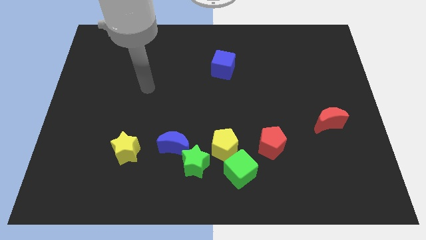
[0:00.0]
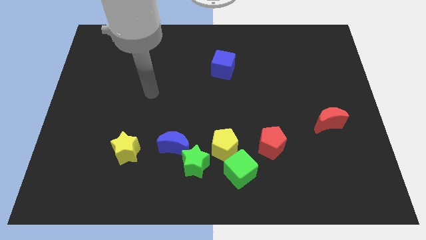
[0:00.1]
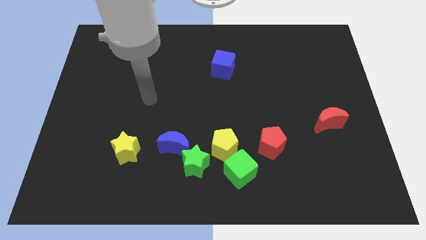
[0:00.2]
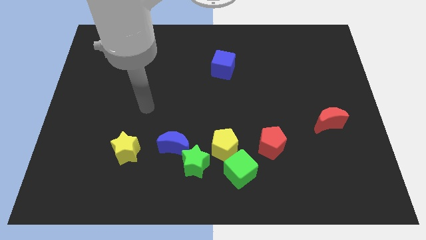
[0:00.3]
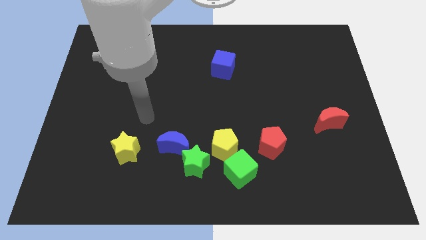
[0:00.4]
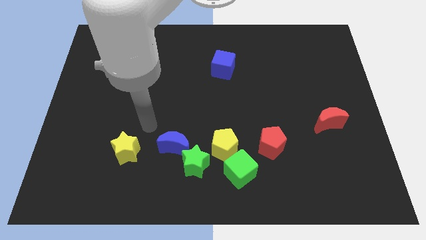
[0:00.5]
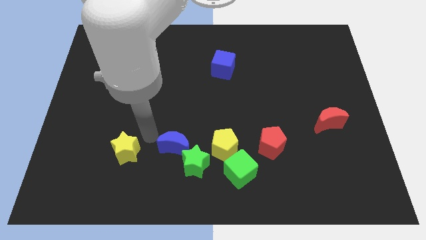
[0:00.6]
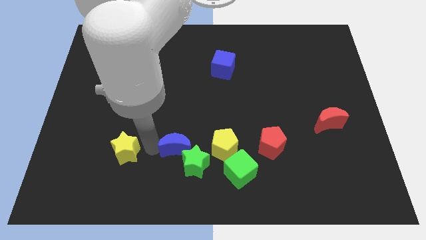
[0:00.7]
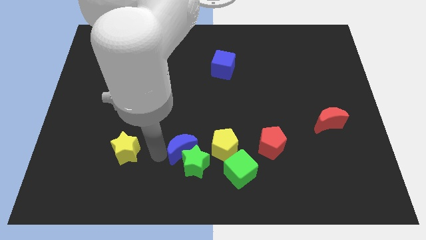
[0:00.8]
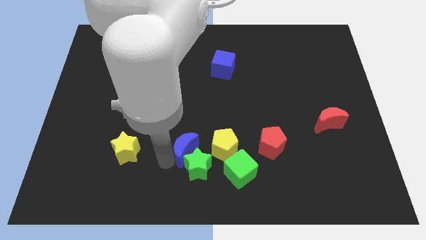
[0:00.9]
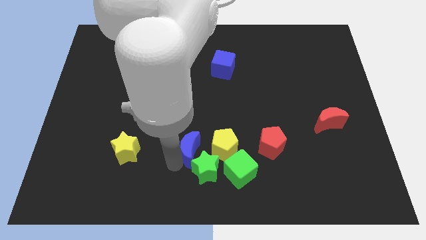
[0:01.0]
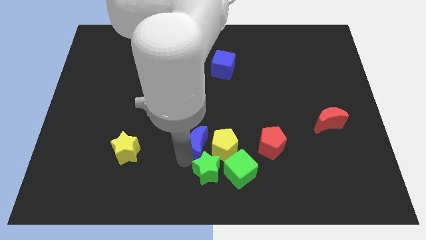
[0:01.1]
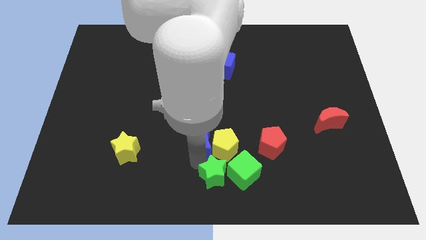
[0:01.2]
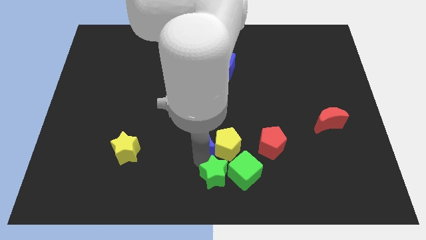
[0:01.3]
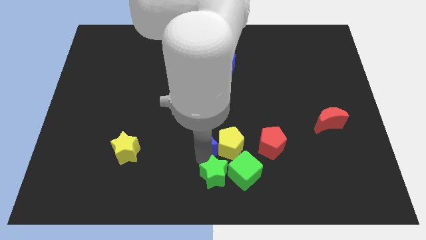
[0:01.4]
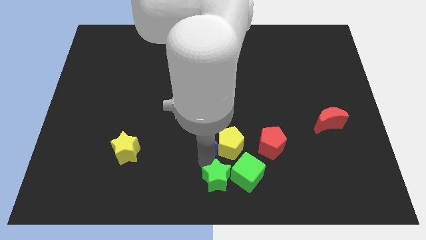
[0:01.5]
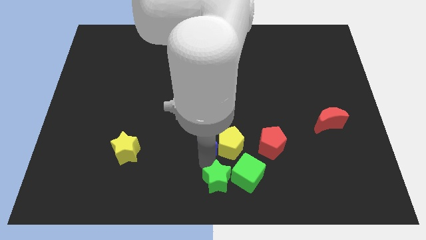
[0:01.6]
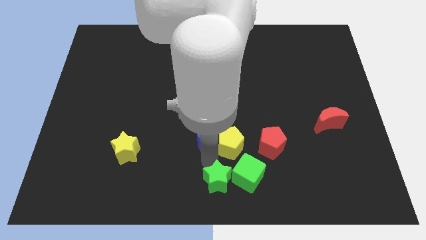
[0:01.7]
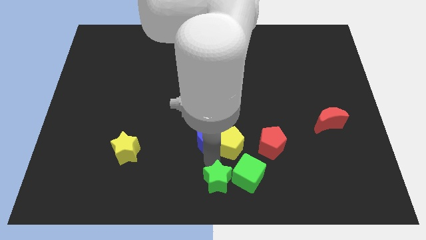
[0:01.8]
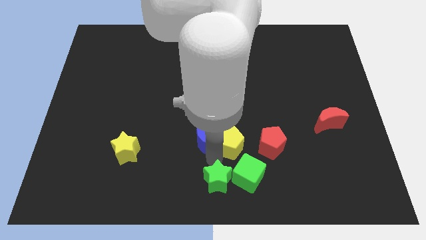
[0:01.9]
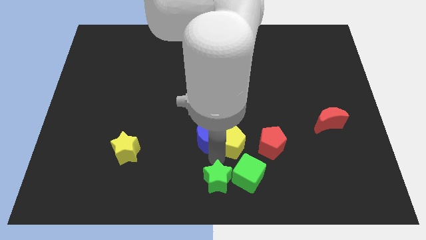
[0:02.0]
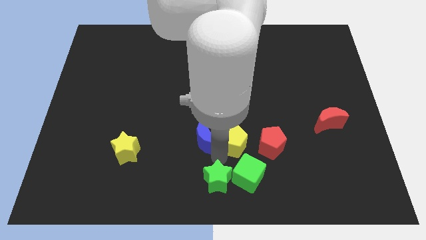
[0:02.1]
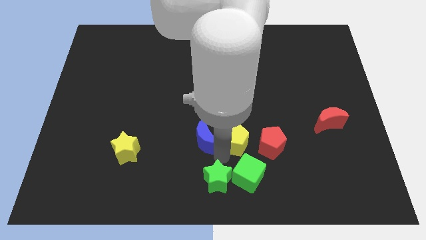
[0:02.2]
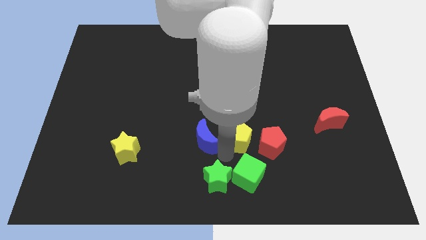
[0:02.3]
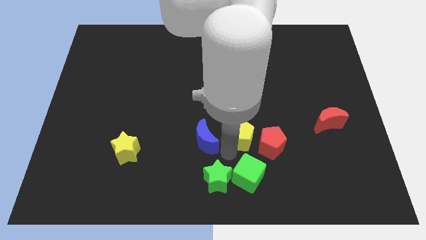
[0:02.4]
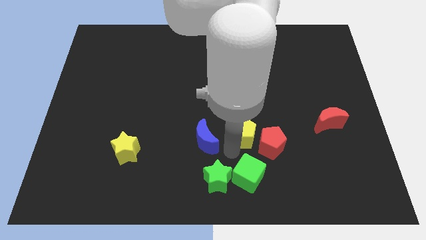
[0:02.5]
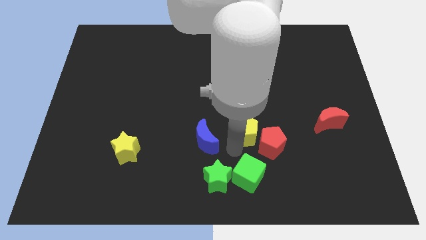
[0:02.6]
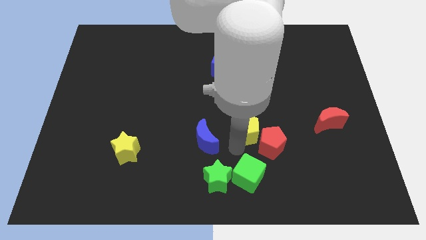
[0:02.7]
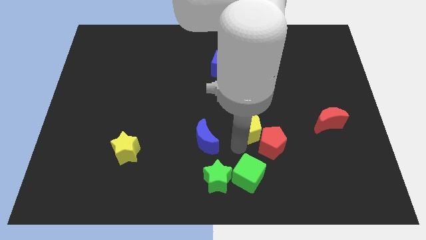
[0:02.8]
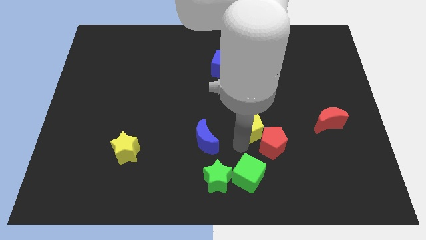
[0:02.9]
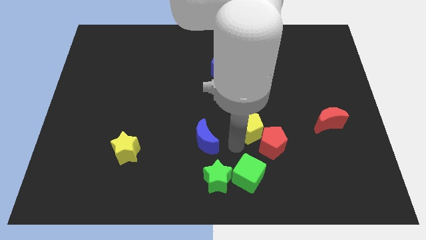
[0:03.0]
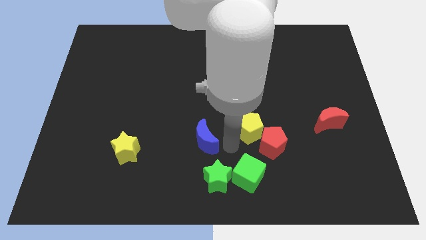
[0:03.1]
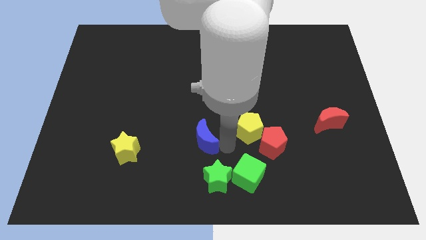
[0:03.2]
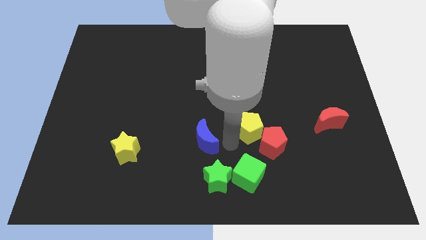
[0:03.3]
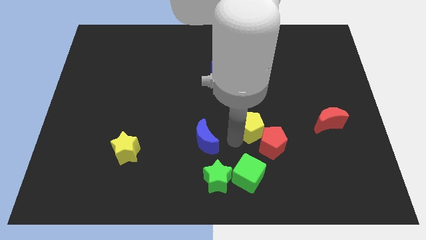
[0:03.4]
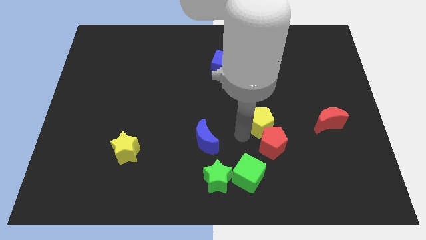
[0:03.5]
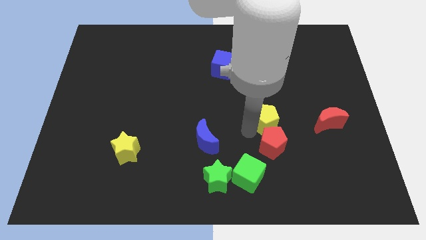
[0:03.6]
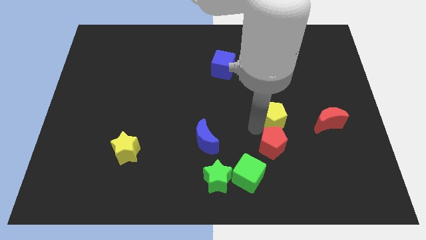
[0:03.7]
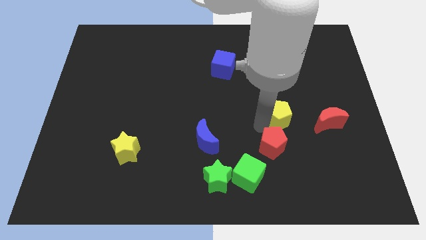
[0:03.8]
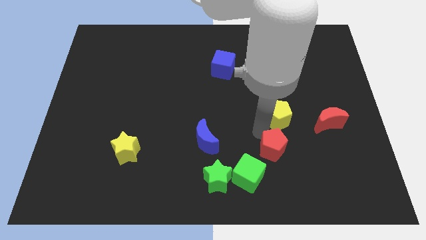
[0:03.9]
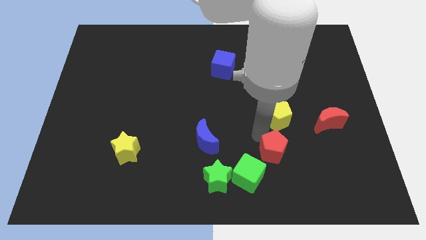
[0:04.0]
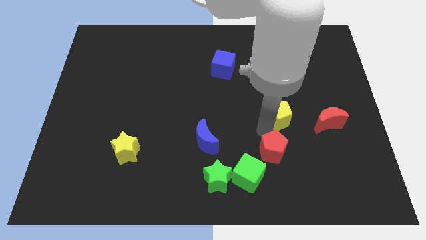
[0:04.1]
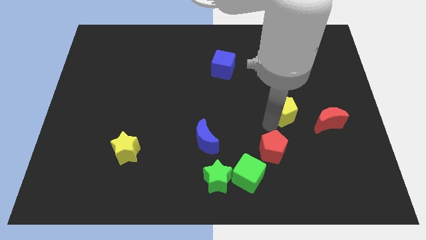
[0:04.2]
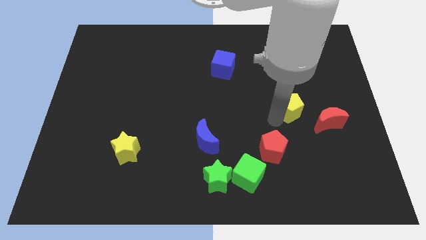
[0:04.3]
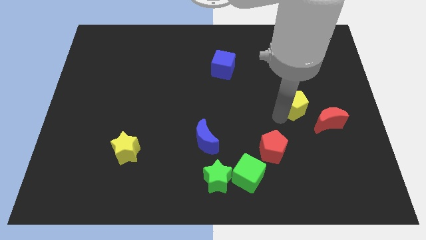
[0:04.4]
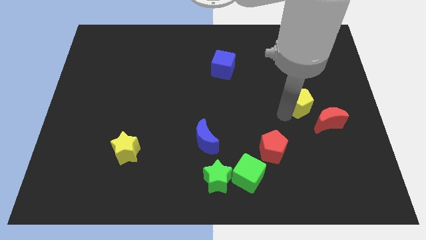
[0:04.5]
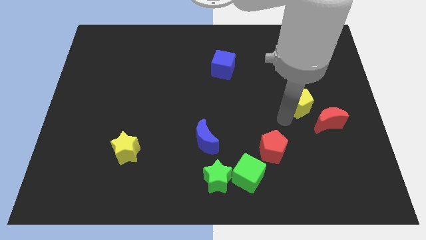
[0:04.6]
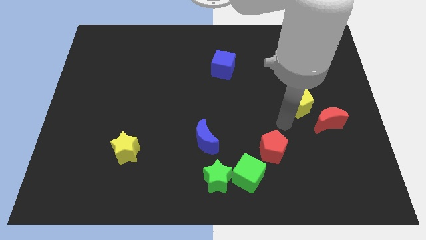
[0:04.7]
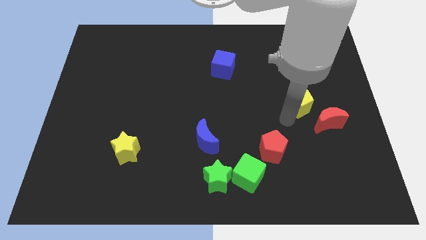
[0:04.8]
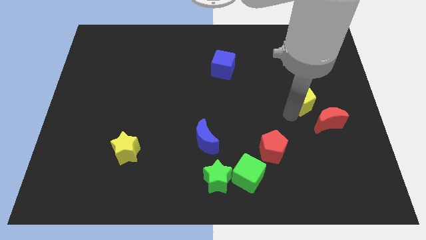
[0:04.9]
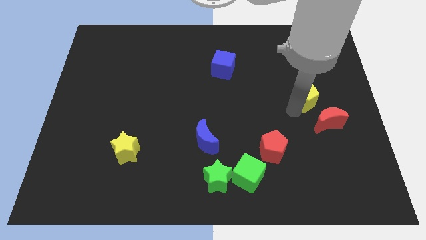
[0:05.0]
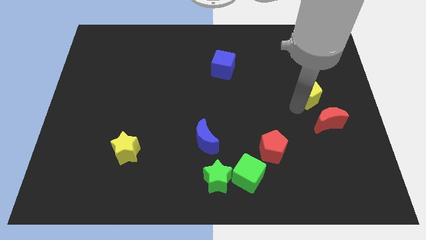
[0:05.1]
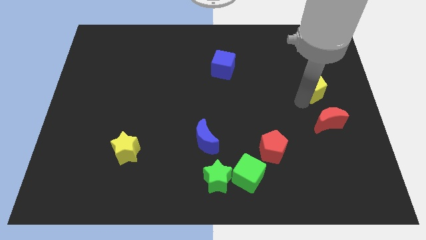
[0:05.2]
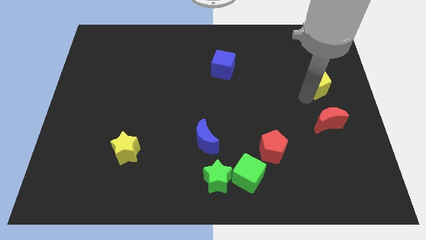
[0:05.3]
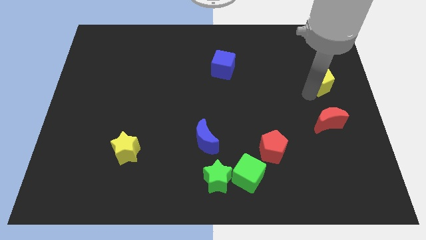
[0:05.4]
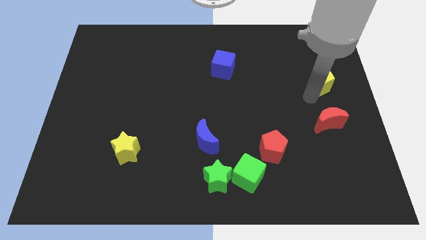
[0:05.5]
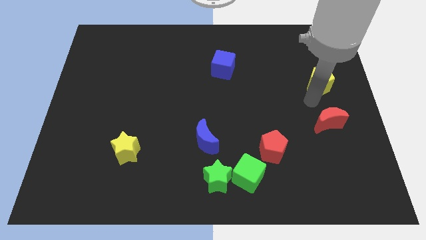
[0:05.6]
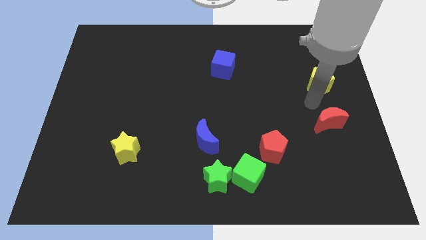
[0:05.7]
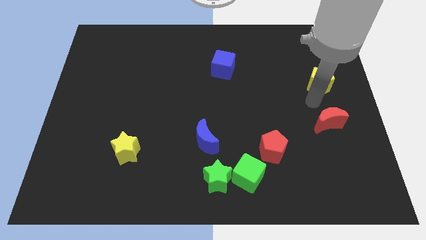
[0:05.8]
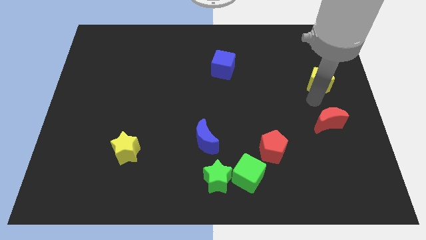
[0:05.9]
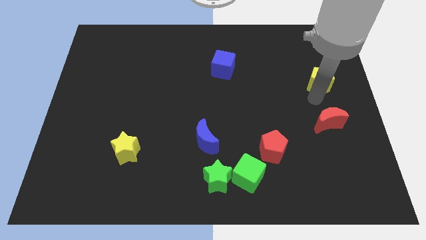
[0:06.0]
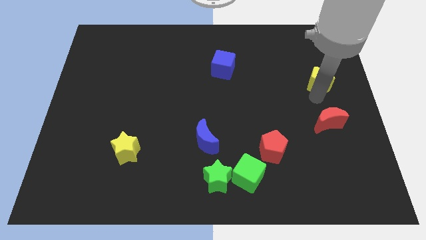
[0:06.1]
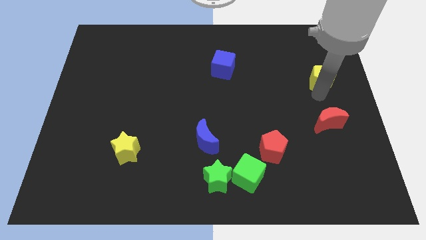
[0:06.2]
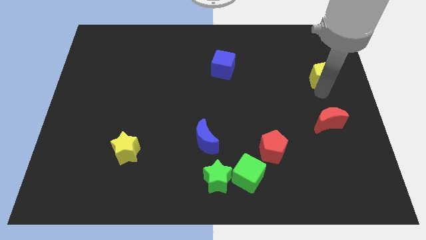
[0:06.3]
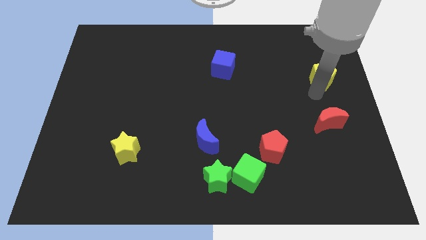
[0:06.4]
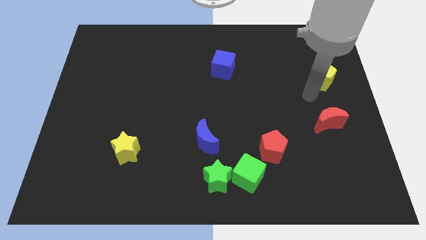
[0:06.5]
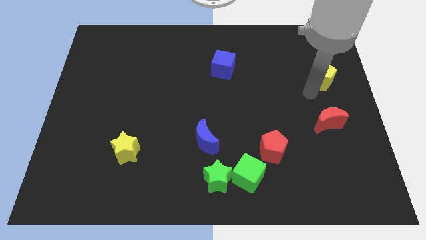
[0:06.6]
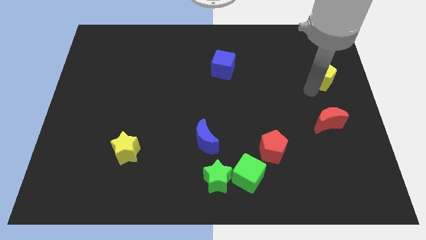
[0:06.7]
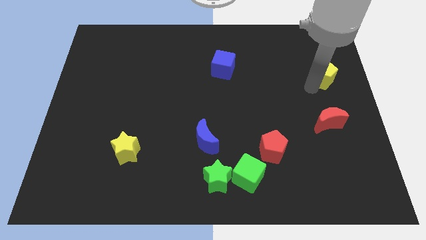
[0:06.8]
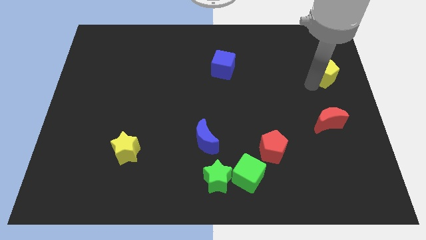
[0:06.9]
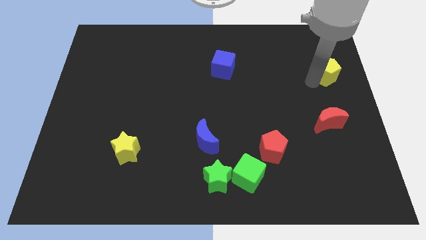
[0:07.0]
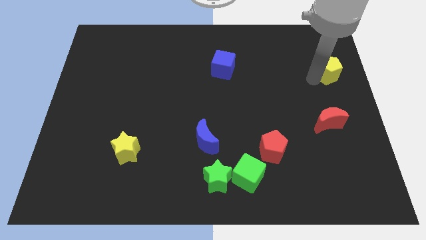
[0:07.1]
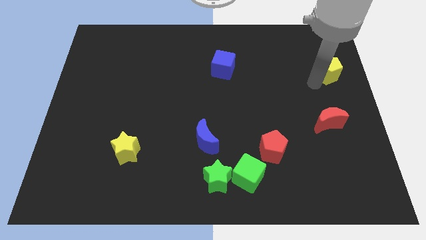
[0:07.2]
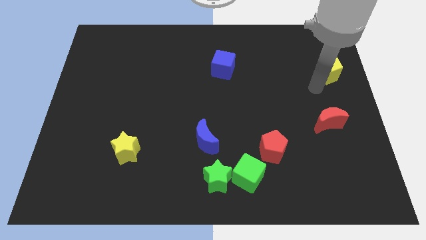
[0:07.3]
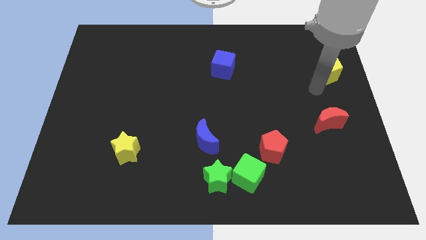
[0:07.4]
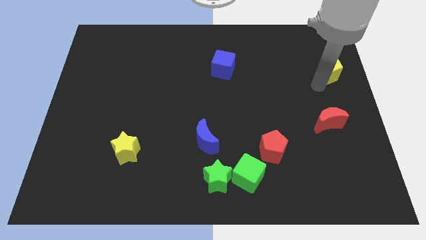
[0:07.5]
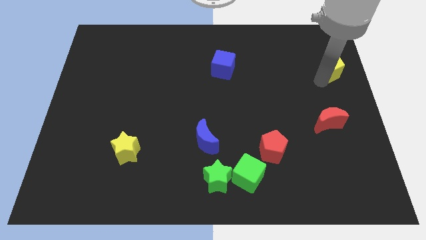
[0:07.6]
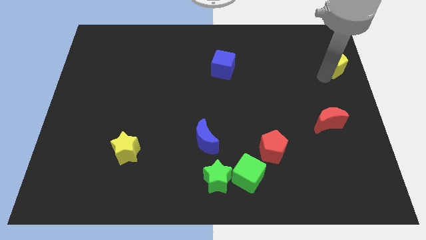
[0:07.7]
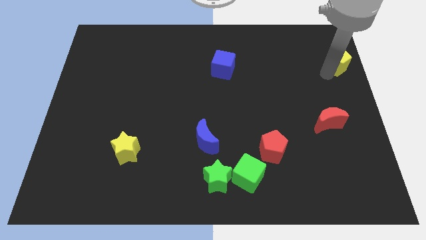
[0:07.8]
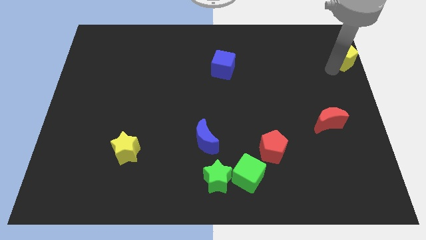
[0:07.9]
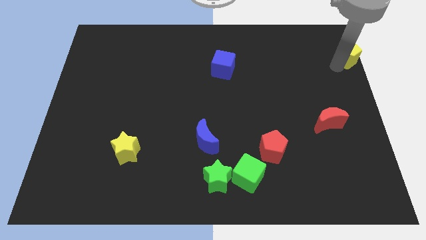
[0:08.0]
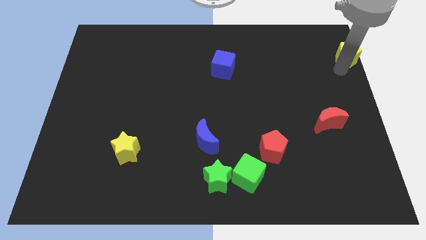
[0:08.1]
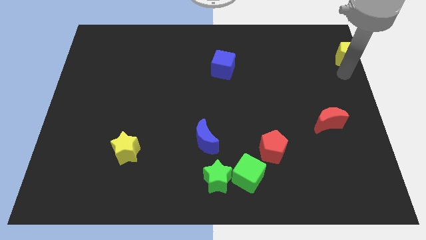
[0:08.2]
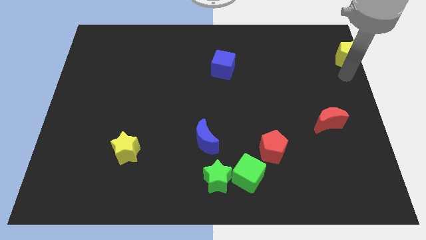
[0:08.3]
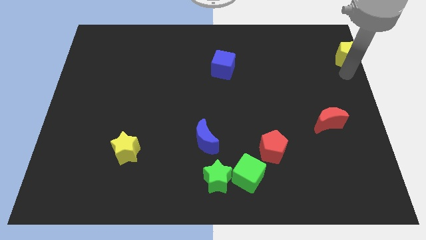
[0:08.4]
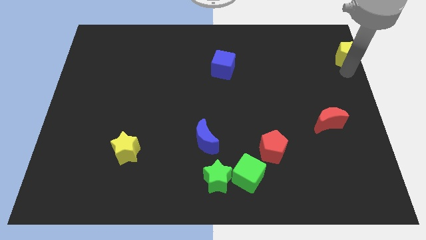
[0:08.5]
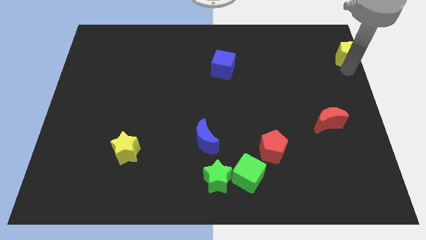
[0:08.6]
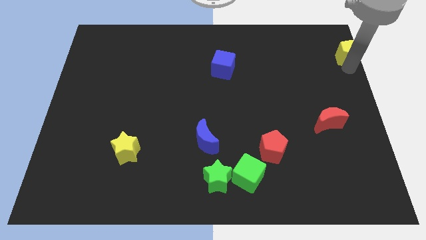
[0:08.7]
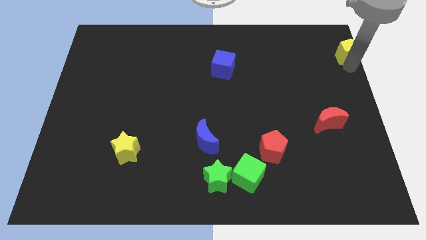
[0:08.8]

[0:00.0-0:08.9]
slide the yellow pentagon to the top right of the board
